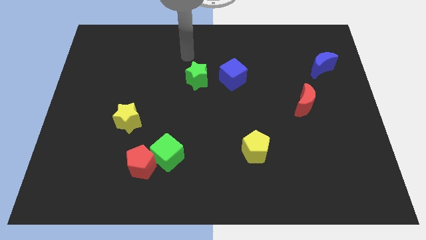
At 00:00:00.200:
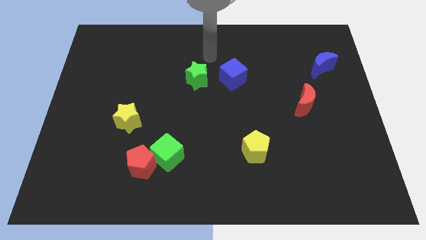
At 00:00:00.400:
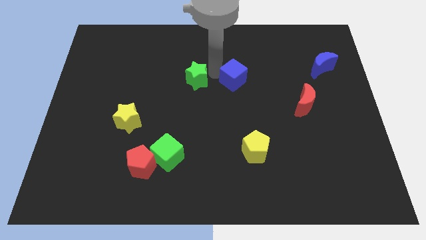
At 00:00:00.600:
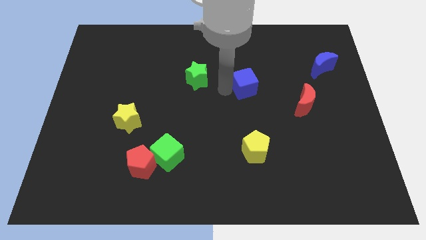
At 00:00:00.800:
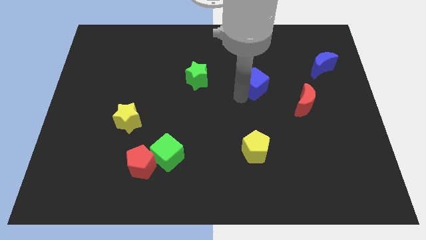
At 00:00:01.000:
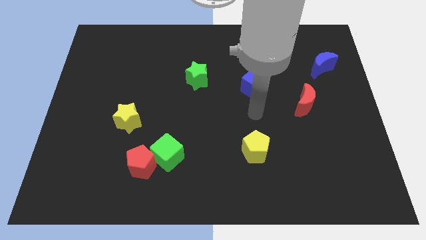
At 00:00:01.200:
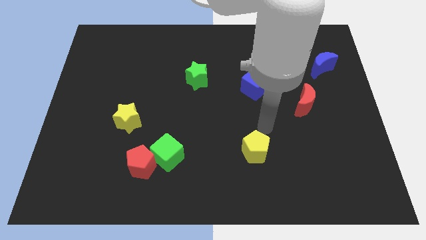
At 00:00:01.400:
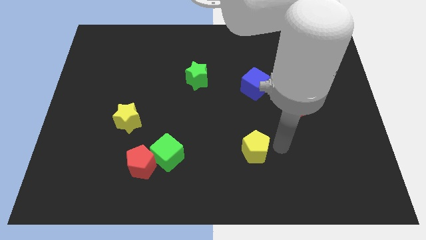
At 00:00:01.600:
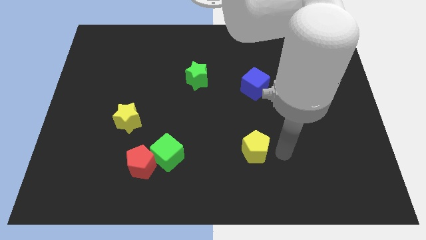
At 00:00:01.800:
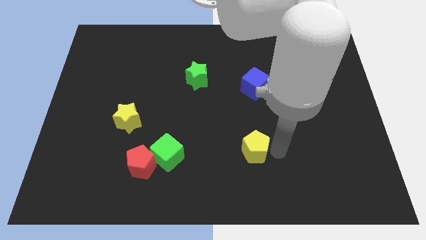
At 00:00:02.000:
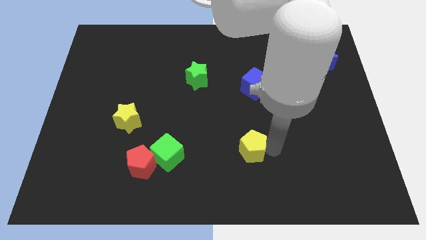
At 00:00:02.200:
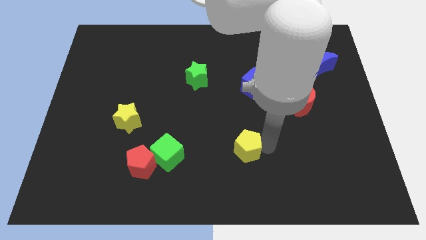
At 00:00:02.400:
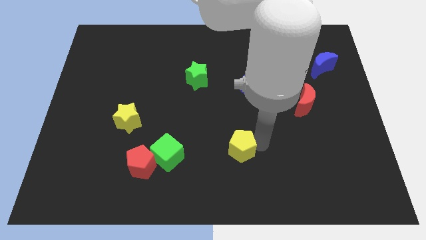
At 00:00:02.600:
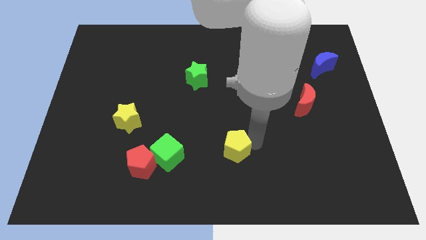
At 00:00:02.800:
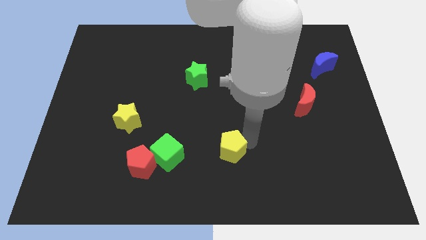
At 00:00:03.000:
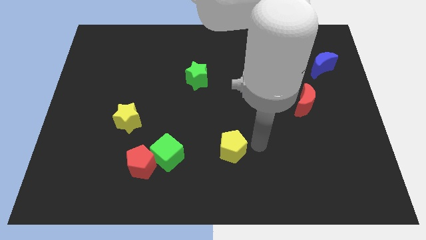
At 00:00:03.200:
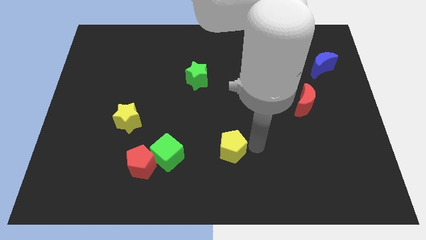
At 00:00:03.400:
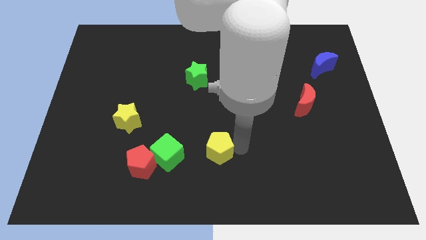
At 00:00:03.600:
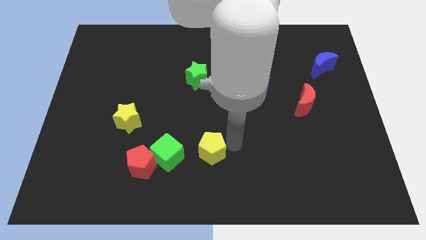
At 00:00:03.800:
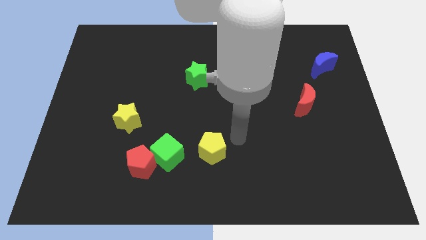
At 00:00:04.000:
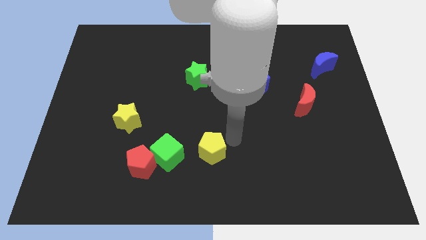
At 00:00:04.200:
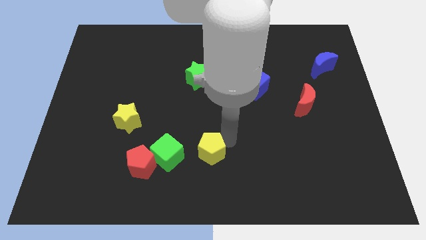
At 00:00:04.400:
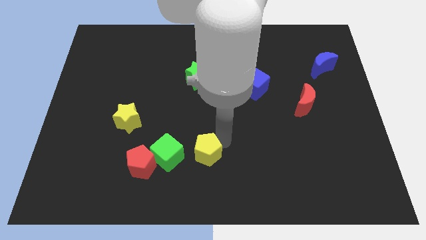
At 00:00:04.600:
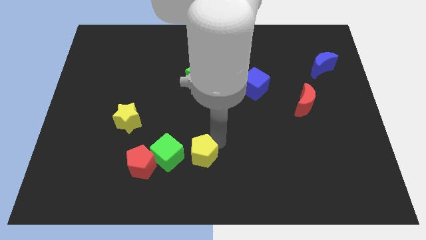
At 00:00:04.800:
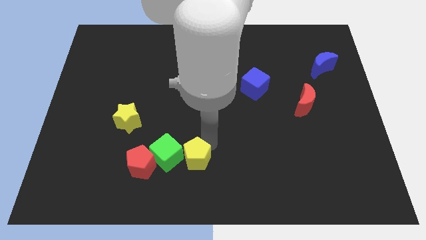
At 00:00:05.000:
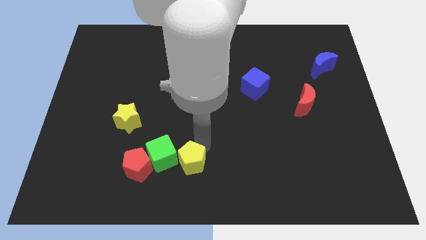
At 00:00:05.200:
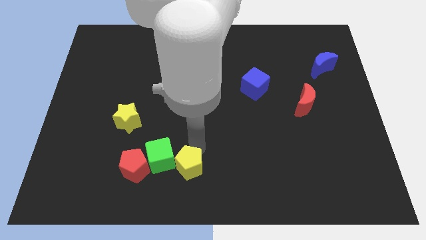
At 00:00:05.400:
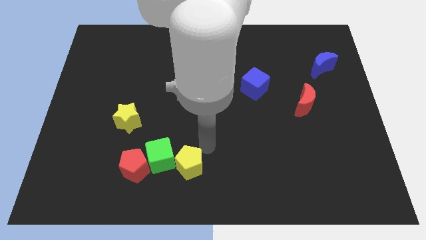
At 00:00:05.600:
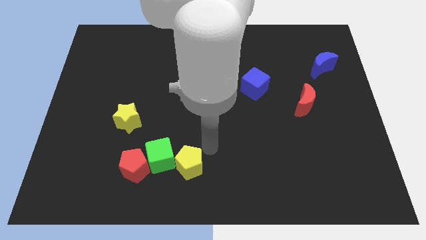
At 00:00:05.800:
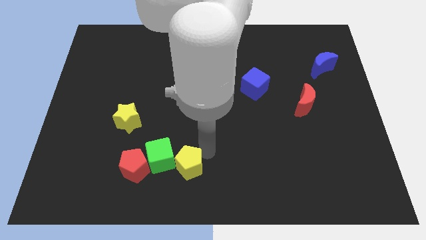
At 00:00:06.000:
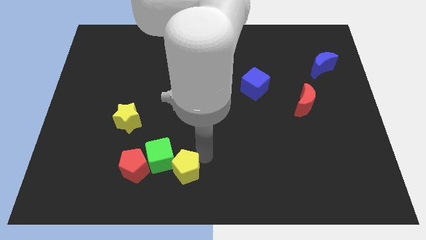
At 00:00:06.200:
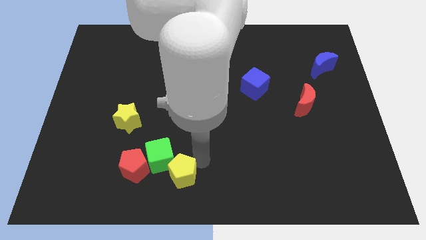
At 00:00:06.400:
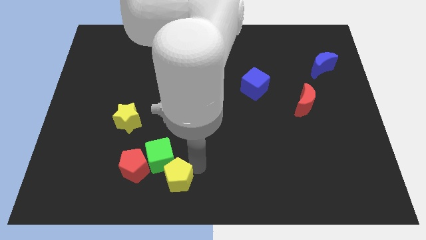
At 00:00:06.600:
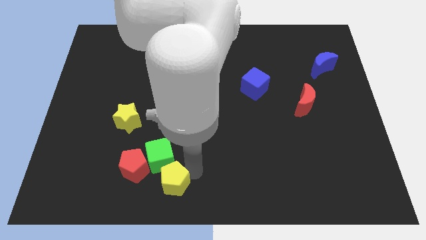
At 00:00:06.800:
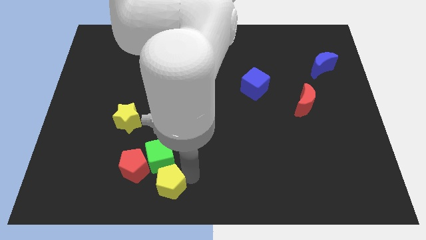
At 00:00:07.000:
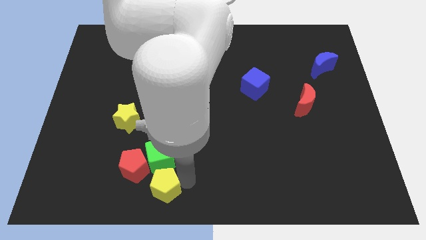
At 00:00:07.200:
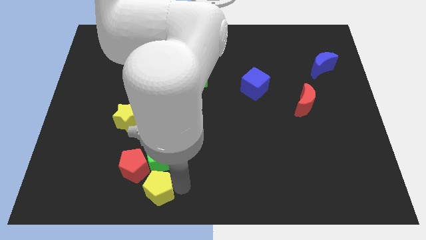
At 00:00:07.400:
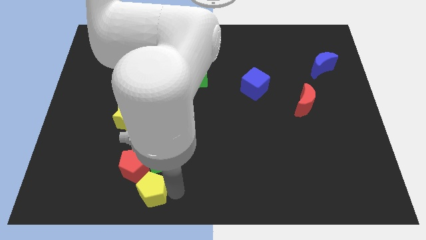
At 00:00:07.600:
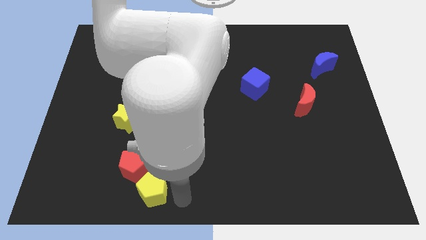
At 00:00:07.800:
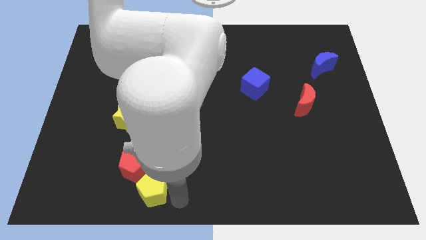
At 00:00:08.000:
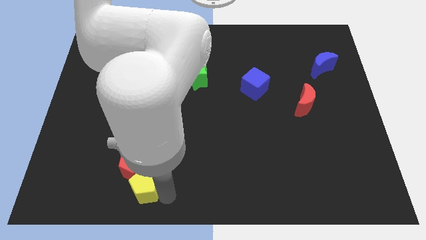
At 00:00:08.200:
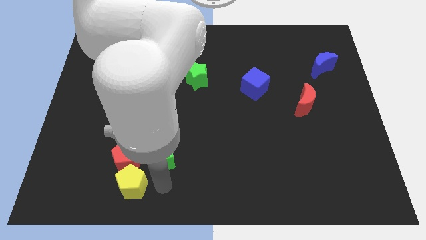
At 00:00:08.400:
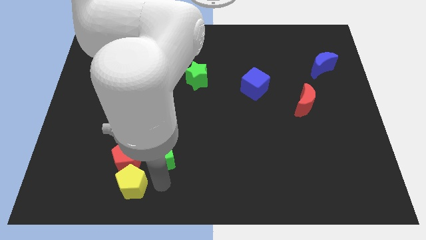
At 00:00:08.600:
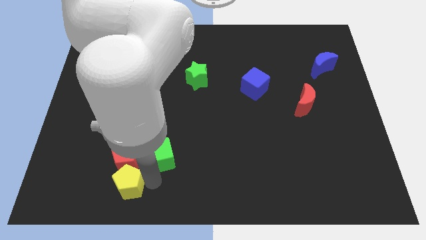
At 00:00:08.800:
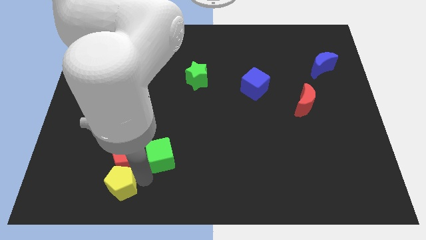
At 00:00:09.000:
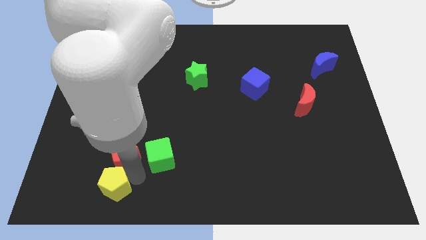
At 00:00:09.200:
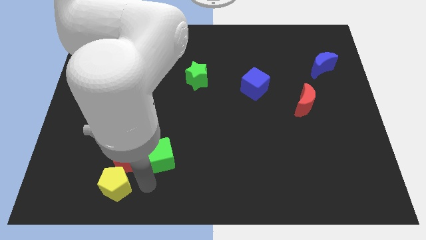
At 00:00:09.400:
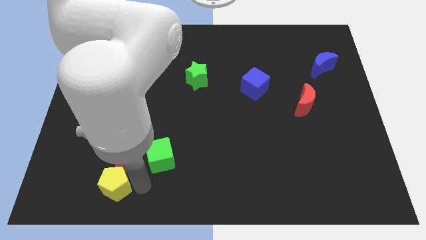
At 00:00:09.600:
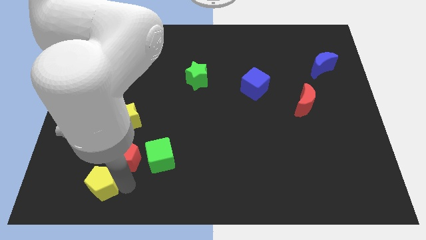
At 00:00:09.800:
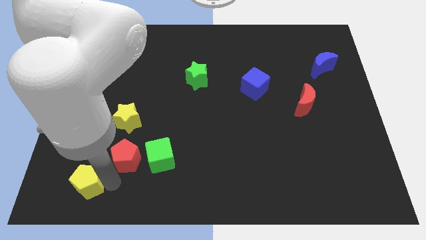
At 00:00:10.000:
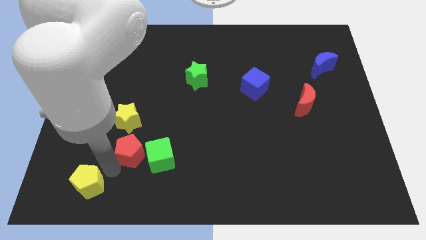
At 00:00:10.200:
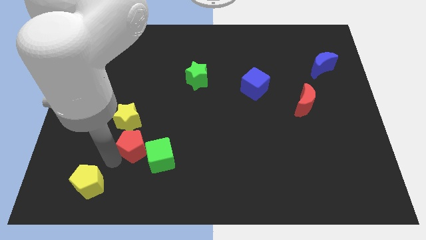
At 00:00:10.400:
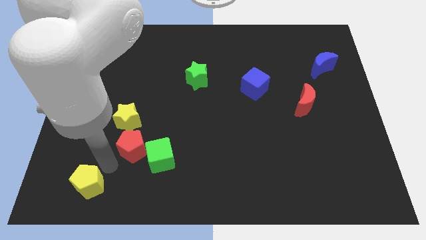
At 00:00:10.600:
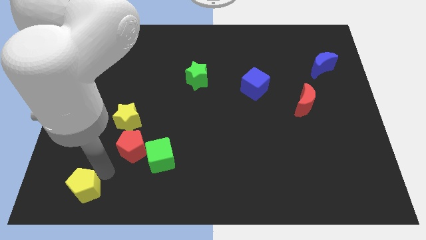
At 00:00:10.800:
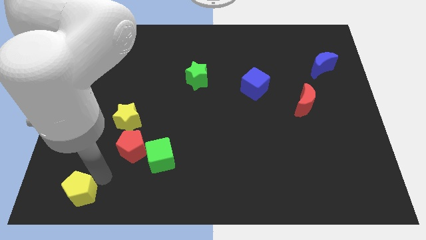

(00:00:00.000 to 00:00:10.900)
push the yellow pentagon to the bottom left corner

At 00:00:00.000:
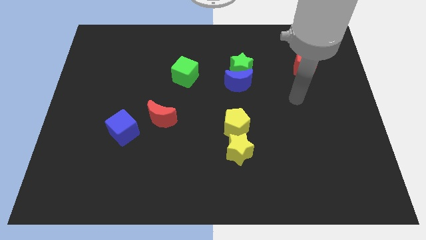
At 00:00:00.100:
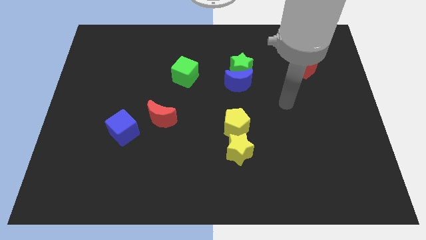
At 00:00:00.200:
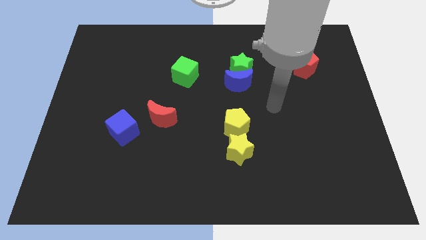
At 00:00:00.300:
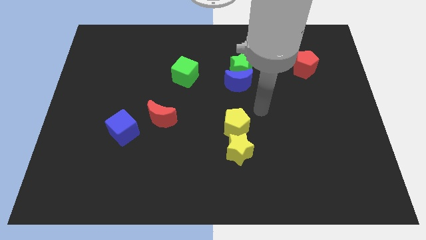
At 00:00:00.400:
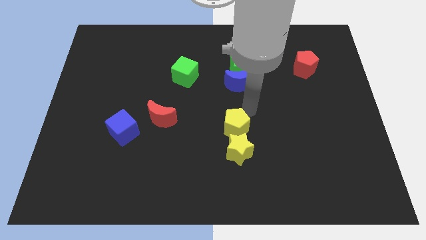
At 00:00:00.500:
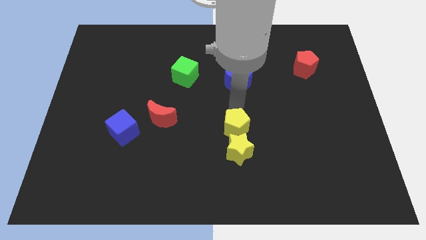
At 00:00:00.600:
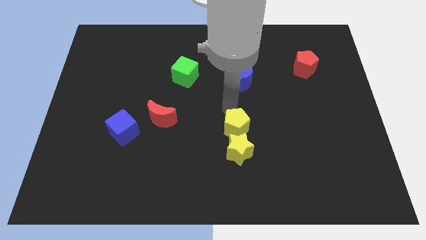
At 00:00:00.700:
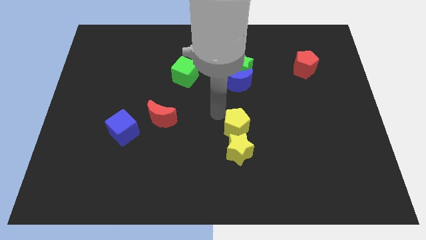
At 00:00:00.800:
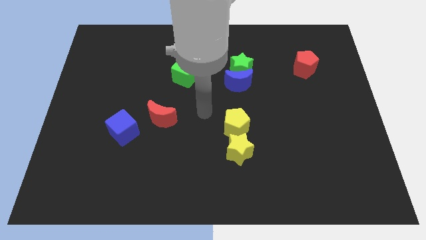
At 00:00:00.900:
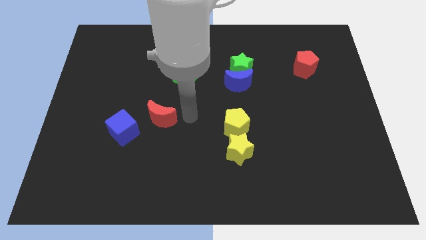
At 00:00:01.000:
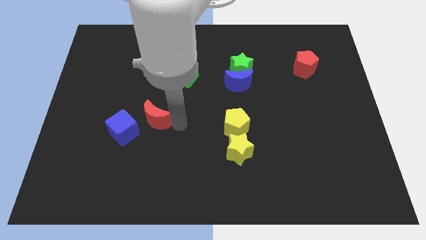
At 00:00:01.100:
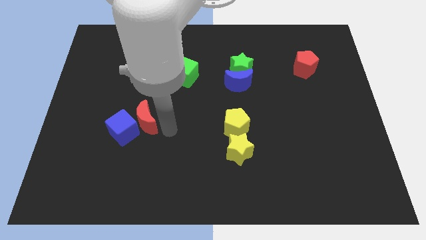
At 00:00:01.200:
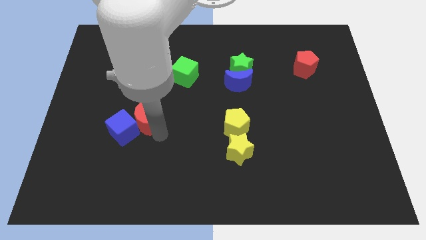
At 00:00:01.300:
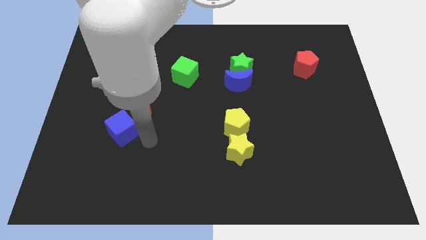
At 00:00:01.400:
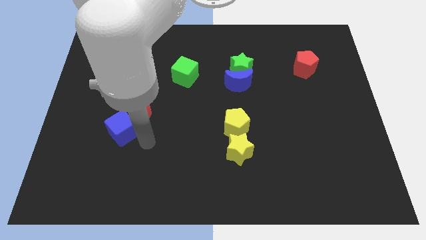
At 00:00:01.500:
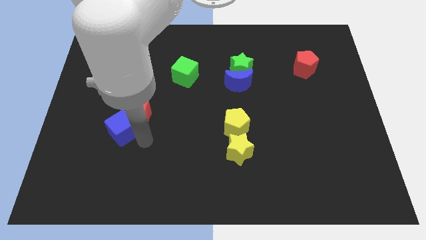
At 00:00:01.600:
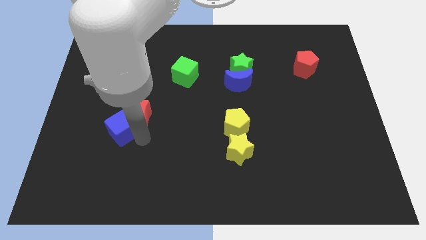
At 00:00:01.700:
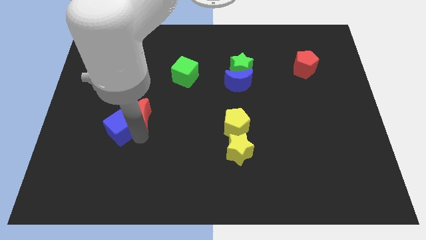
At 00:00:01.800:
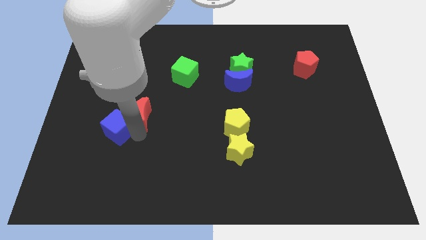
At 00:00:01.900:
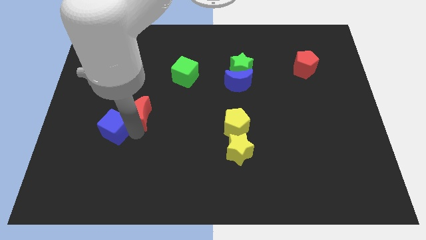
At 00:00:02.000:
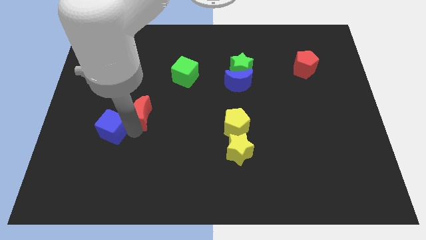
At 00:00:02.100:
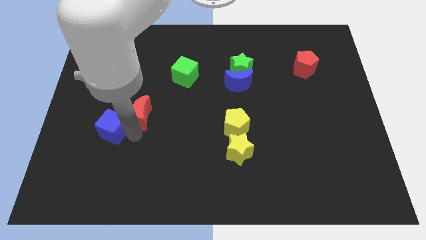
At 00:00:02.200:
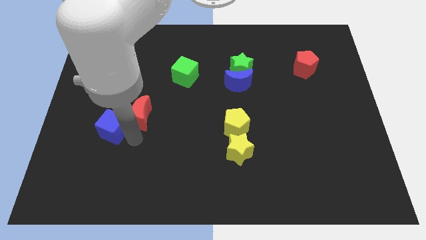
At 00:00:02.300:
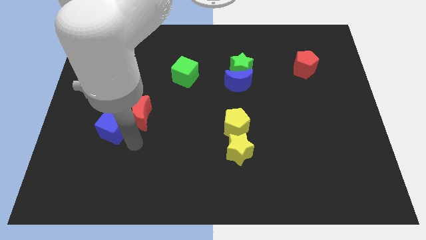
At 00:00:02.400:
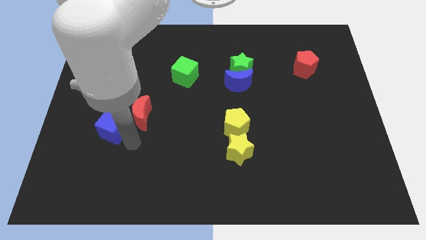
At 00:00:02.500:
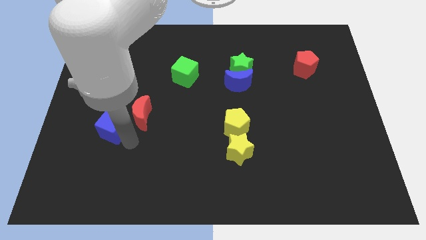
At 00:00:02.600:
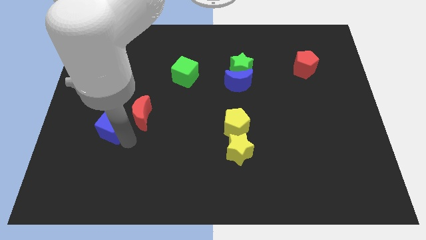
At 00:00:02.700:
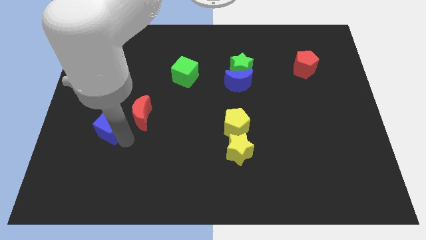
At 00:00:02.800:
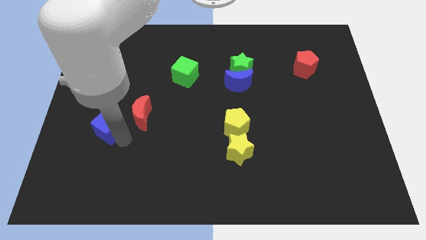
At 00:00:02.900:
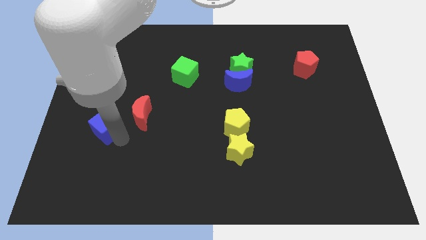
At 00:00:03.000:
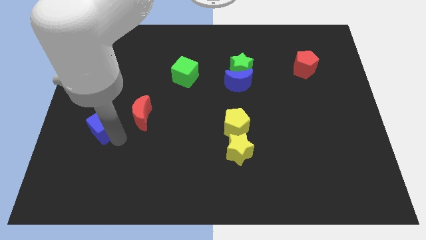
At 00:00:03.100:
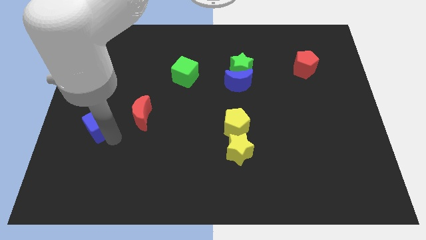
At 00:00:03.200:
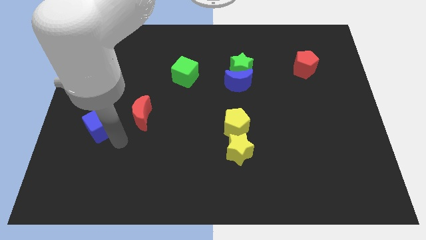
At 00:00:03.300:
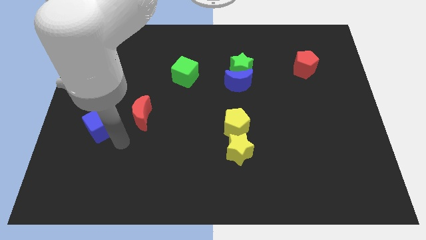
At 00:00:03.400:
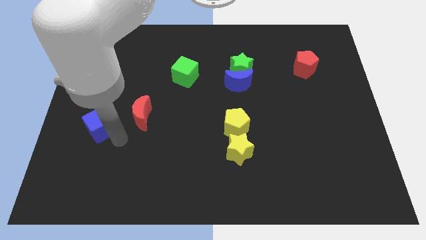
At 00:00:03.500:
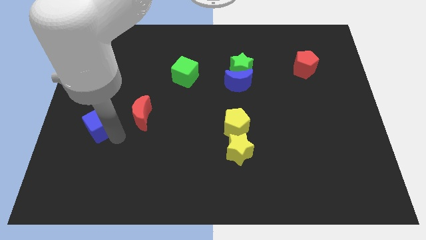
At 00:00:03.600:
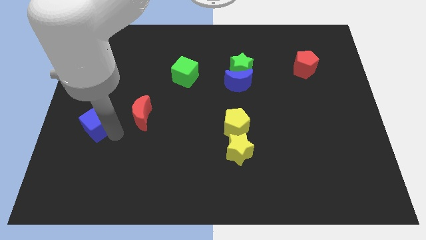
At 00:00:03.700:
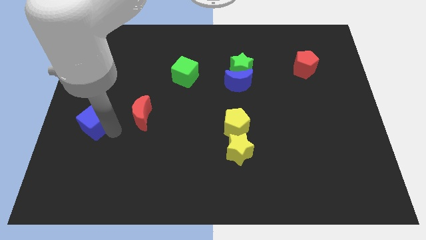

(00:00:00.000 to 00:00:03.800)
put the blue cube to the left side
